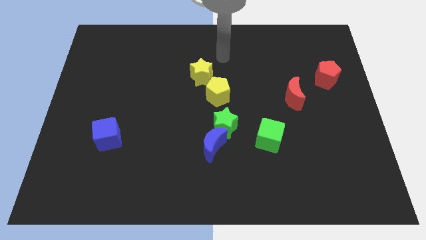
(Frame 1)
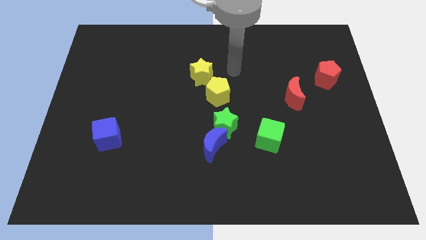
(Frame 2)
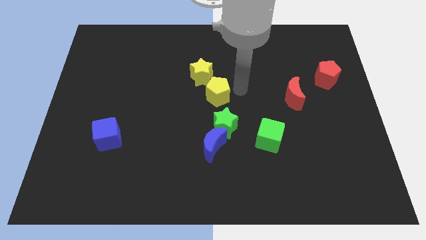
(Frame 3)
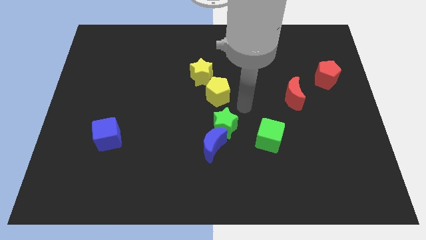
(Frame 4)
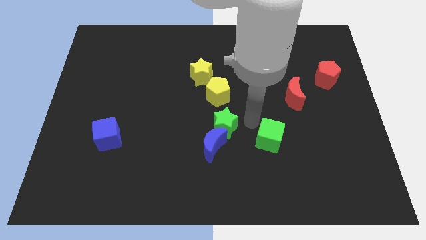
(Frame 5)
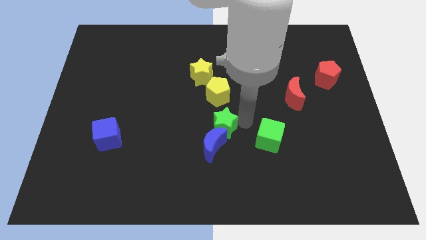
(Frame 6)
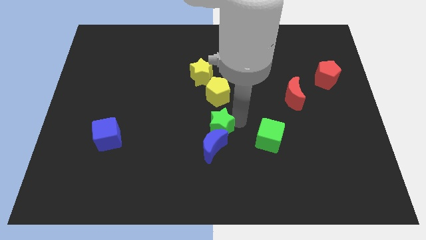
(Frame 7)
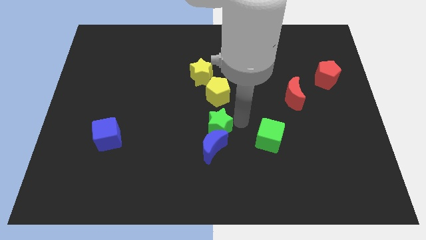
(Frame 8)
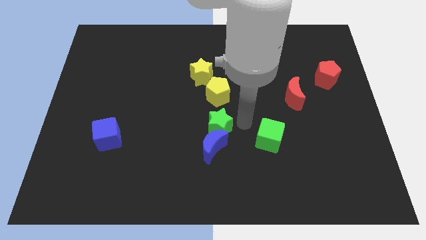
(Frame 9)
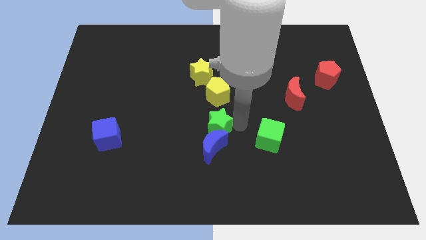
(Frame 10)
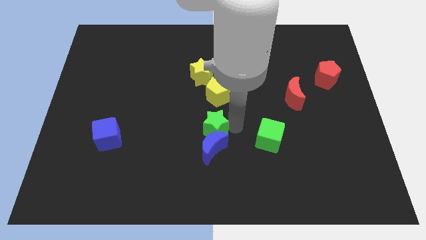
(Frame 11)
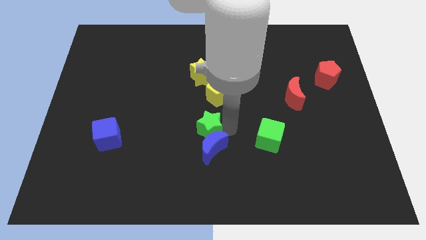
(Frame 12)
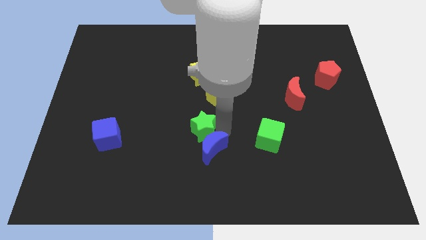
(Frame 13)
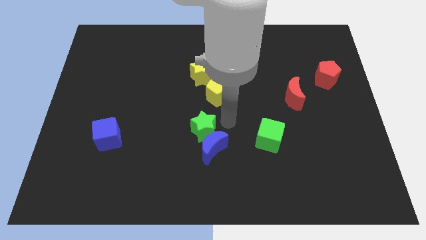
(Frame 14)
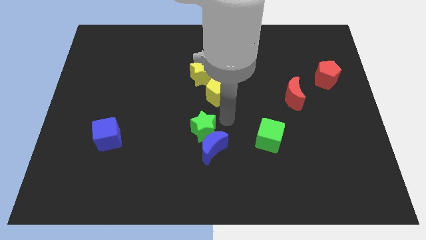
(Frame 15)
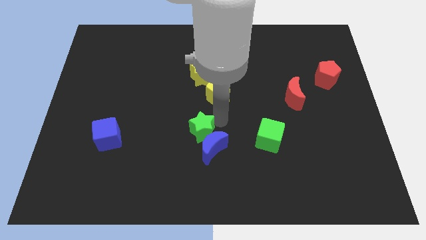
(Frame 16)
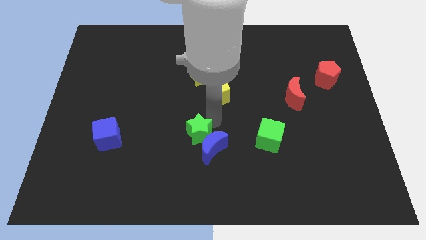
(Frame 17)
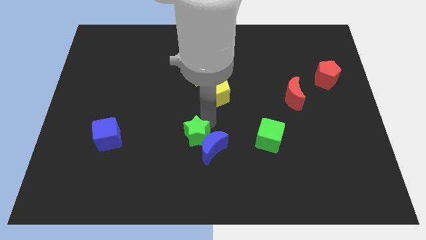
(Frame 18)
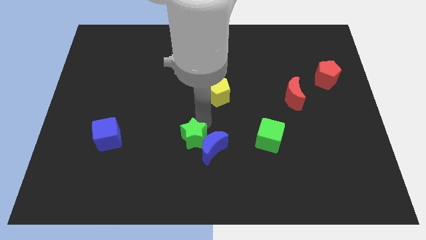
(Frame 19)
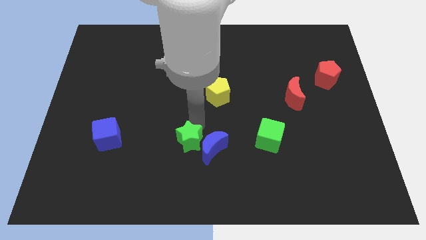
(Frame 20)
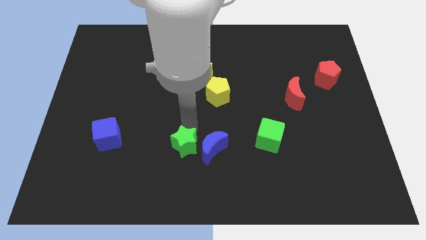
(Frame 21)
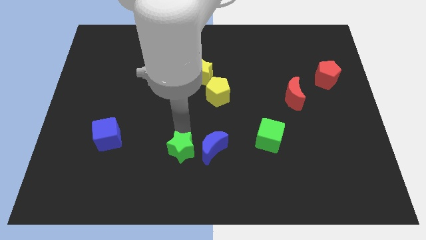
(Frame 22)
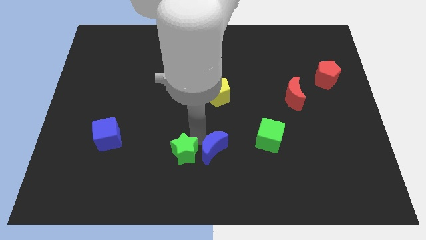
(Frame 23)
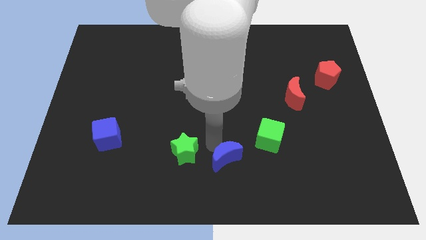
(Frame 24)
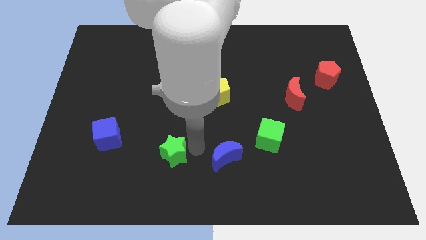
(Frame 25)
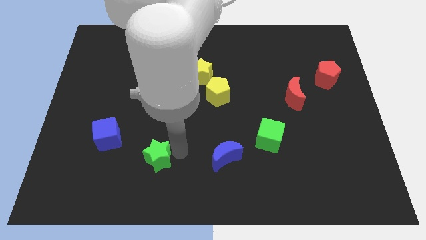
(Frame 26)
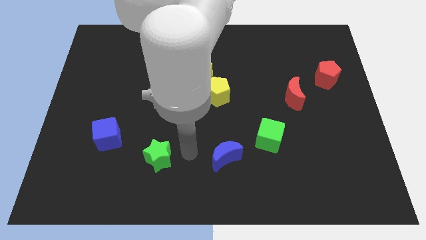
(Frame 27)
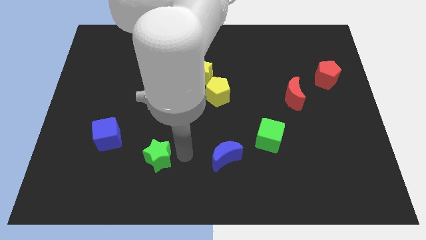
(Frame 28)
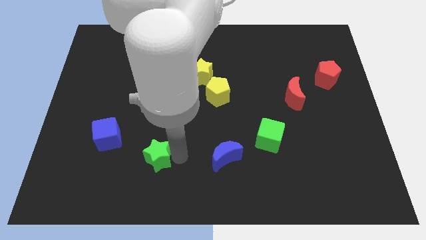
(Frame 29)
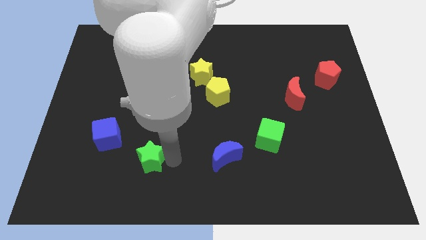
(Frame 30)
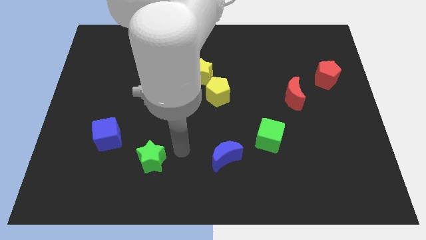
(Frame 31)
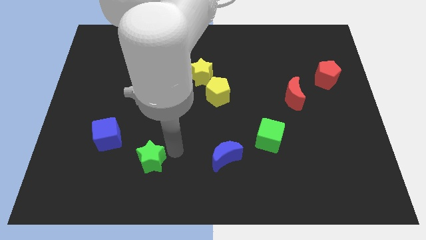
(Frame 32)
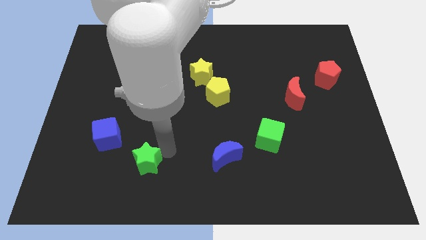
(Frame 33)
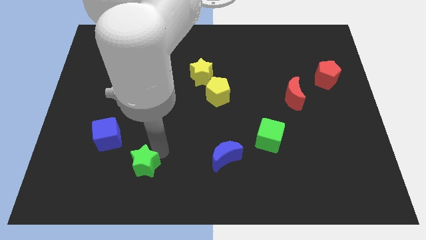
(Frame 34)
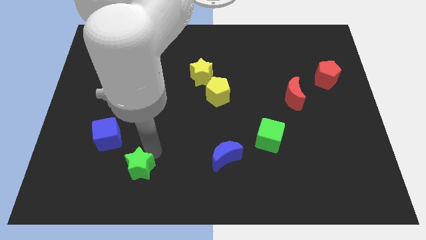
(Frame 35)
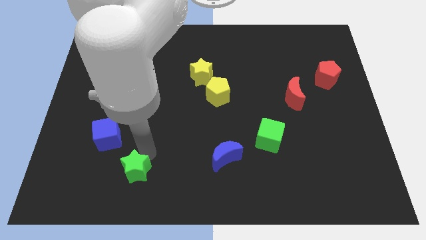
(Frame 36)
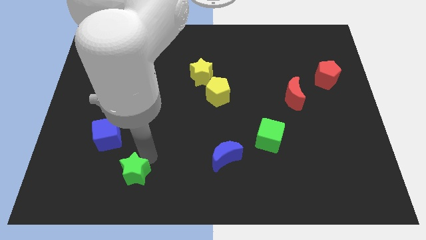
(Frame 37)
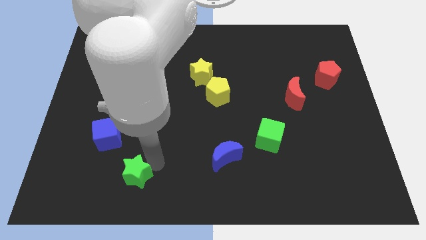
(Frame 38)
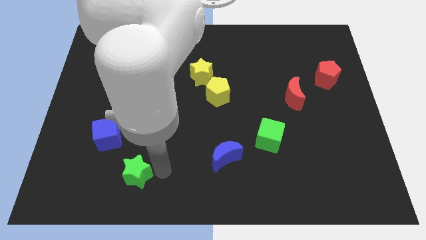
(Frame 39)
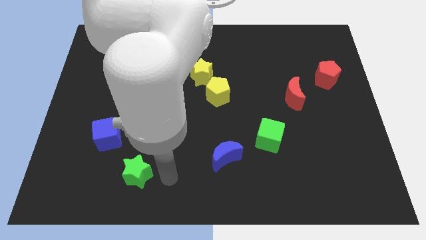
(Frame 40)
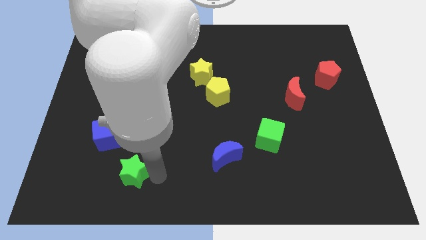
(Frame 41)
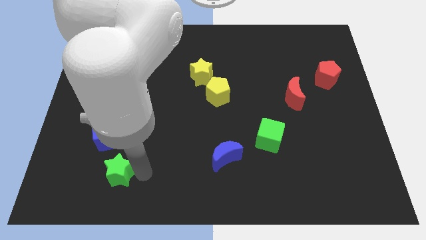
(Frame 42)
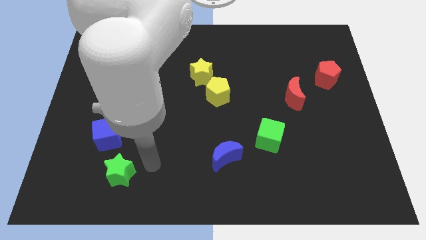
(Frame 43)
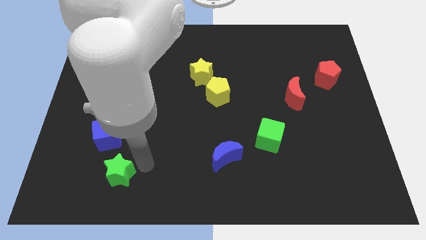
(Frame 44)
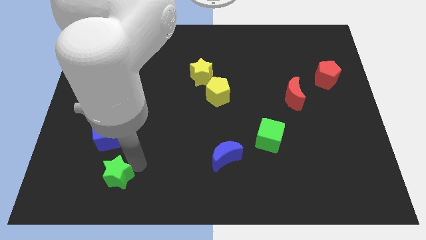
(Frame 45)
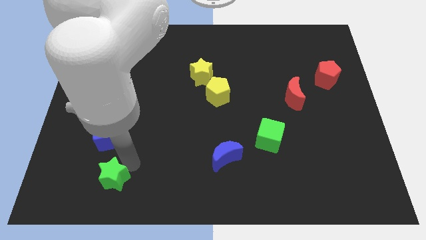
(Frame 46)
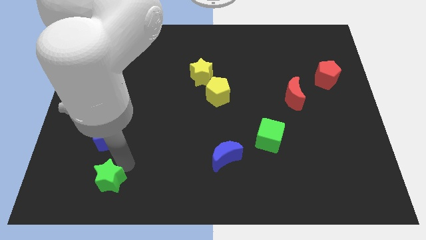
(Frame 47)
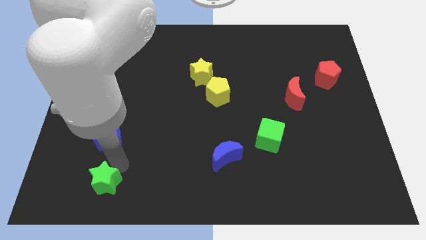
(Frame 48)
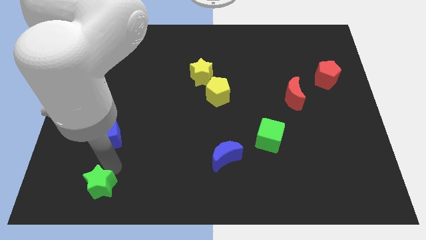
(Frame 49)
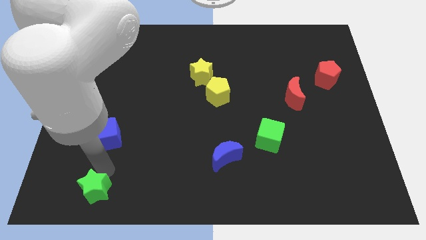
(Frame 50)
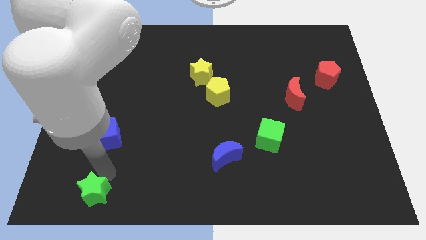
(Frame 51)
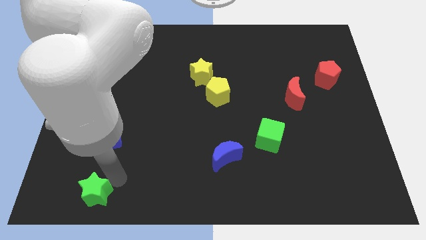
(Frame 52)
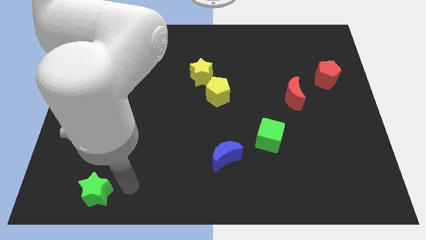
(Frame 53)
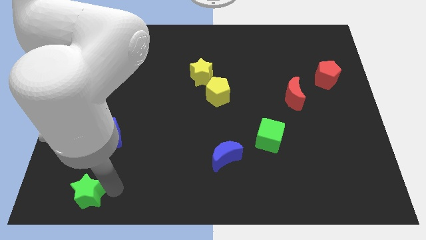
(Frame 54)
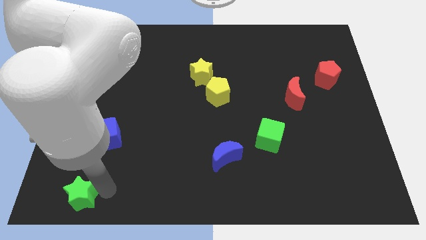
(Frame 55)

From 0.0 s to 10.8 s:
put the green star to the bottom left corner

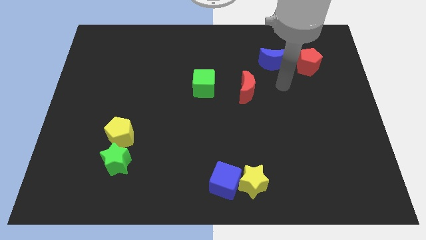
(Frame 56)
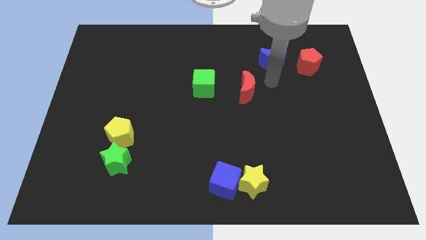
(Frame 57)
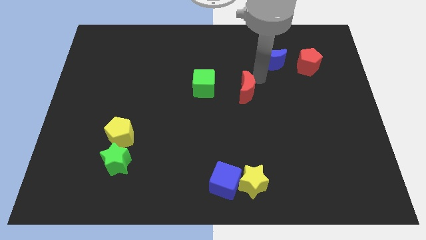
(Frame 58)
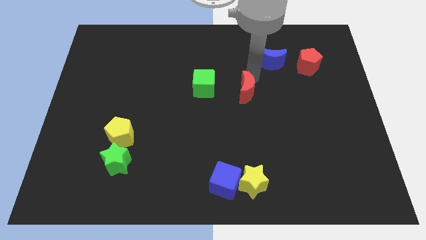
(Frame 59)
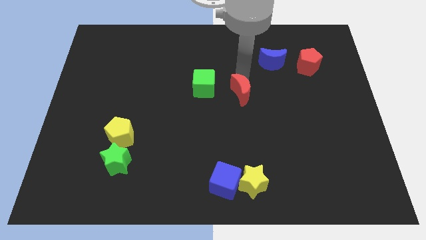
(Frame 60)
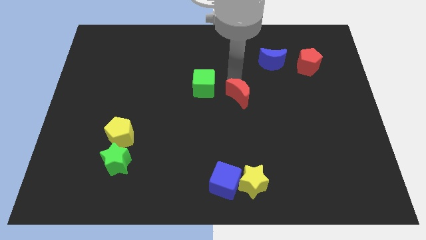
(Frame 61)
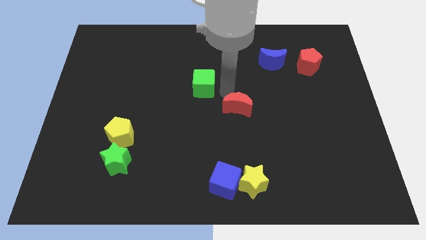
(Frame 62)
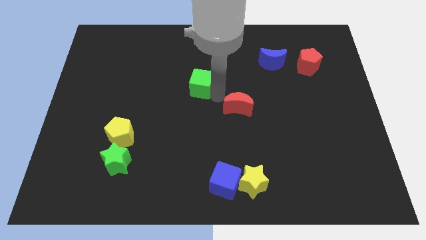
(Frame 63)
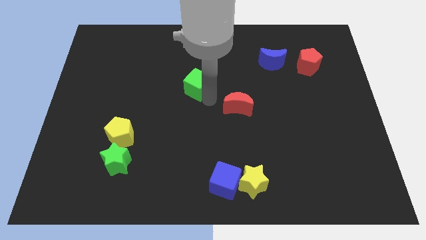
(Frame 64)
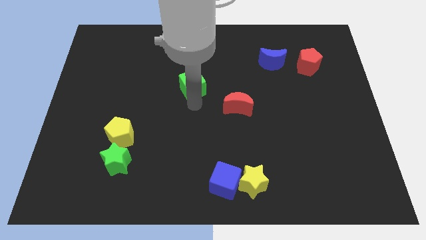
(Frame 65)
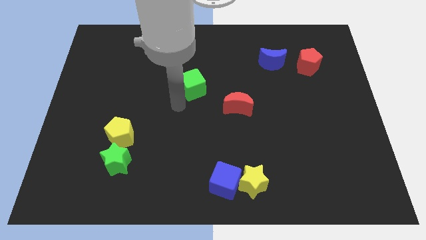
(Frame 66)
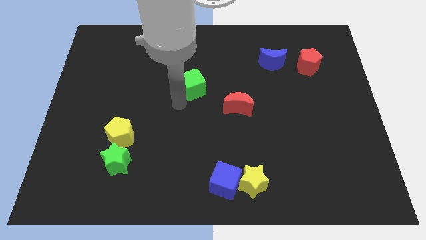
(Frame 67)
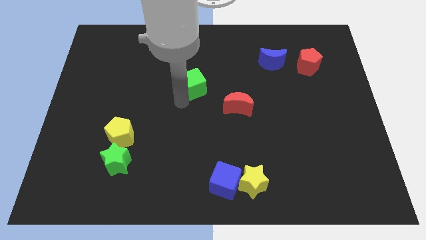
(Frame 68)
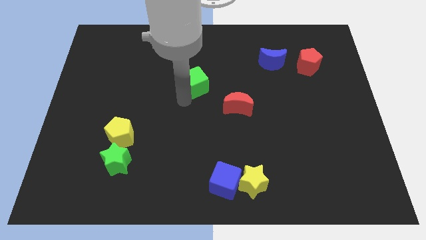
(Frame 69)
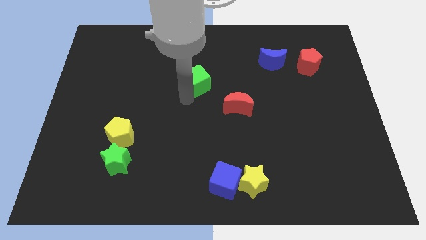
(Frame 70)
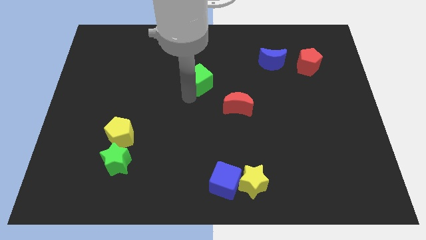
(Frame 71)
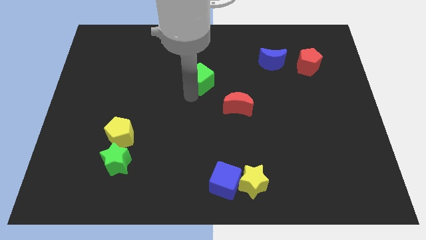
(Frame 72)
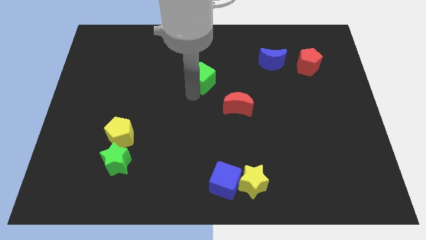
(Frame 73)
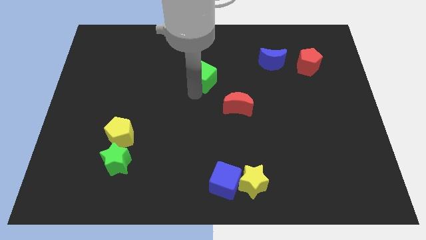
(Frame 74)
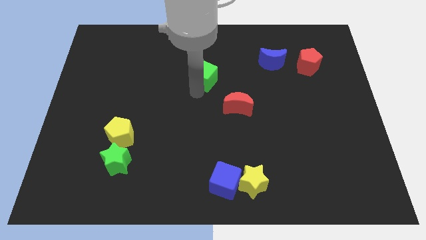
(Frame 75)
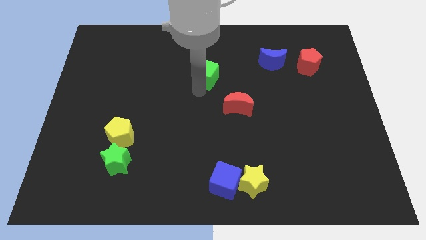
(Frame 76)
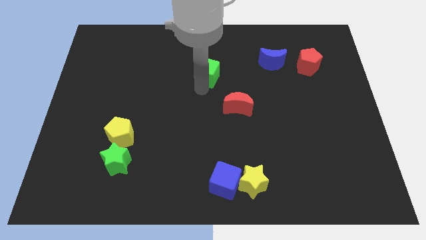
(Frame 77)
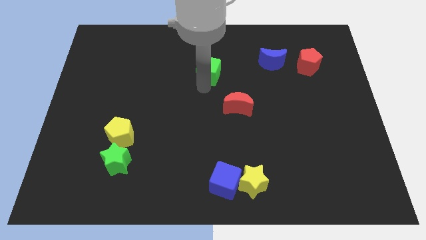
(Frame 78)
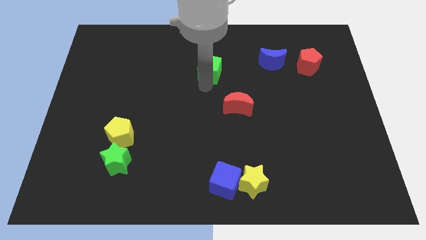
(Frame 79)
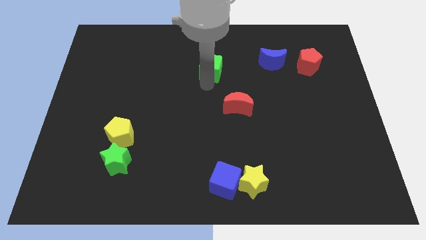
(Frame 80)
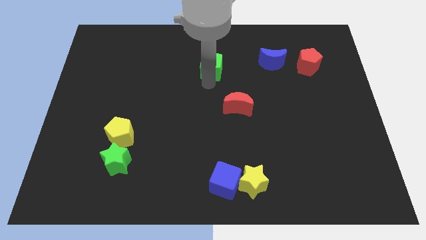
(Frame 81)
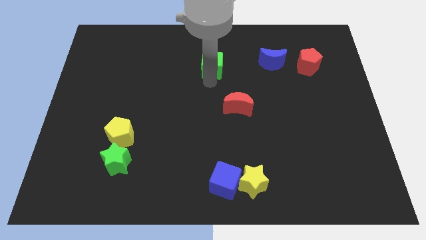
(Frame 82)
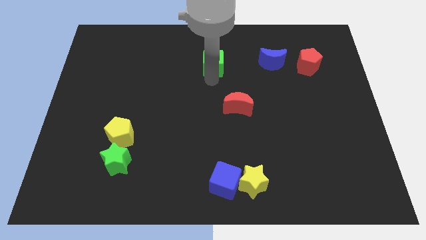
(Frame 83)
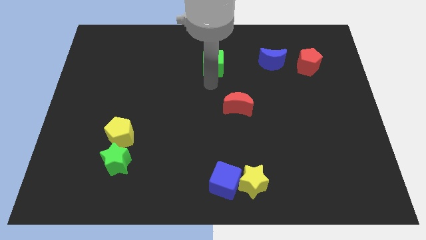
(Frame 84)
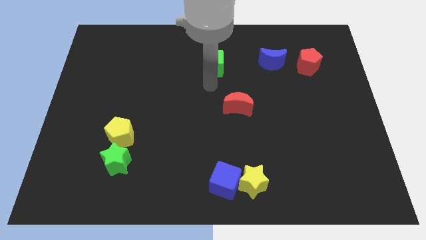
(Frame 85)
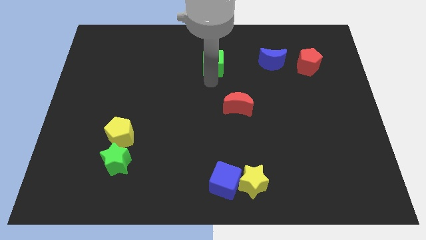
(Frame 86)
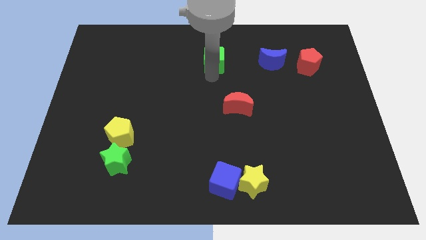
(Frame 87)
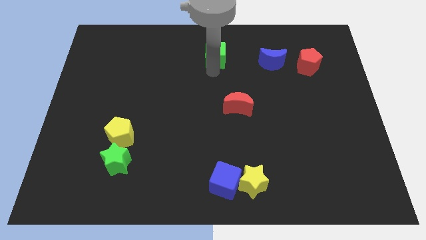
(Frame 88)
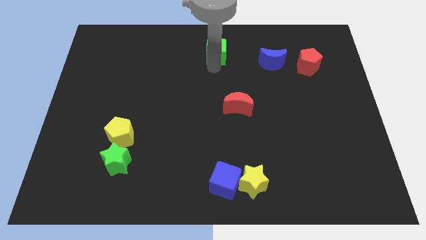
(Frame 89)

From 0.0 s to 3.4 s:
slide the green cube to the top side
